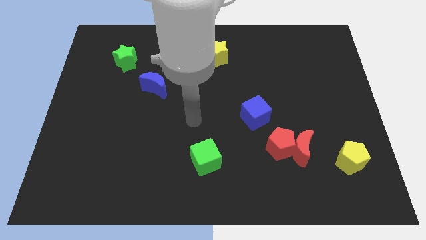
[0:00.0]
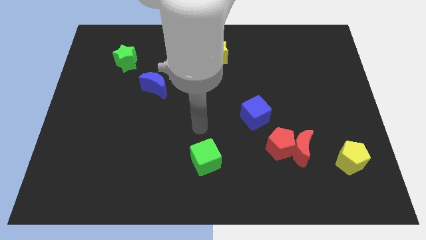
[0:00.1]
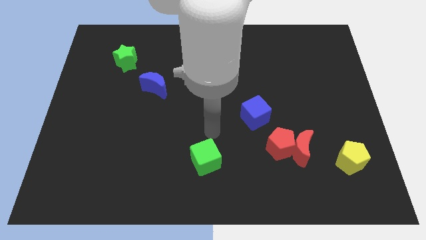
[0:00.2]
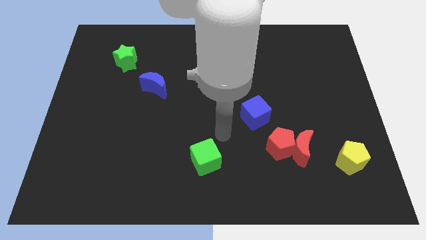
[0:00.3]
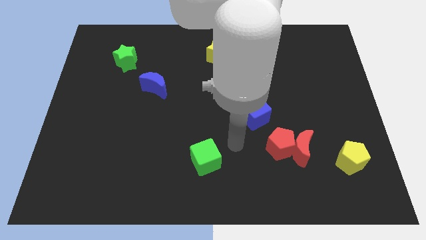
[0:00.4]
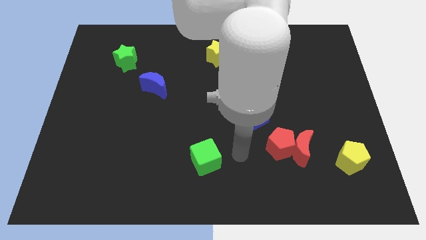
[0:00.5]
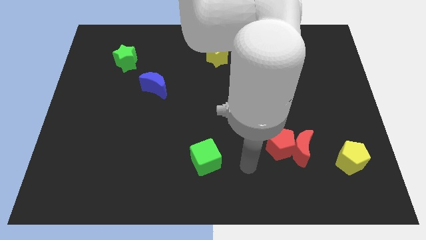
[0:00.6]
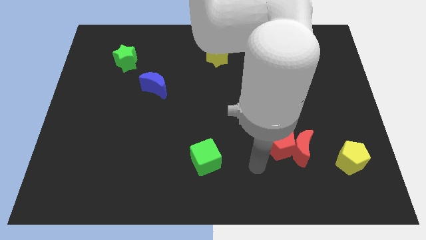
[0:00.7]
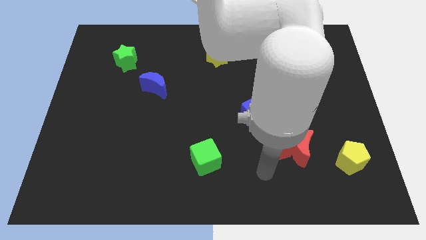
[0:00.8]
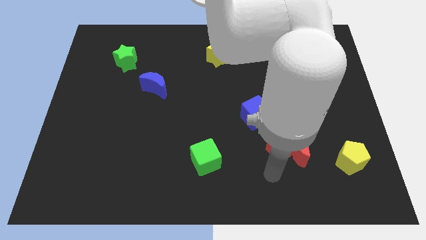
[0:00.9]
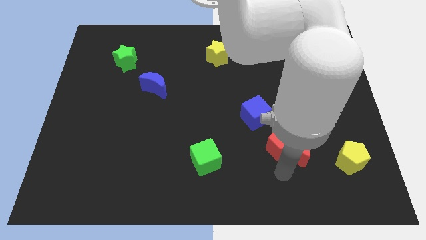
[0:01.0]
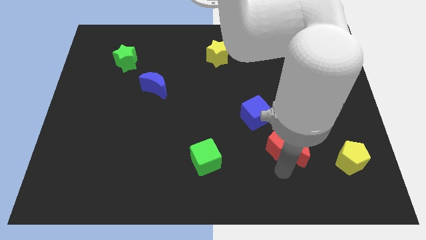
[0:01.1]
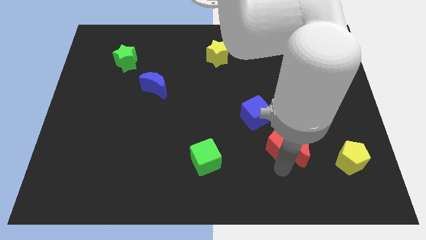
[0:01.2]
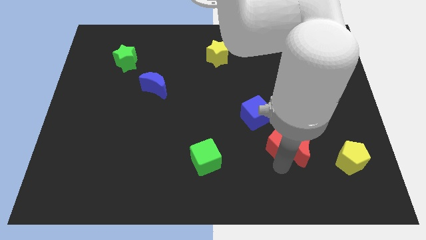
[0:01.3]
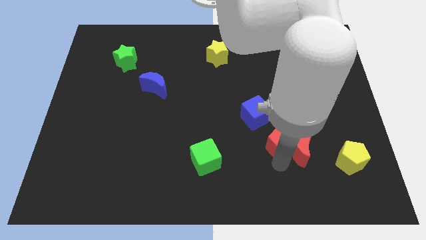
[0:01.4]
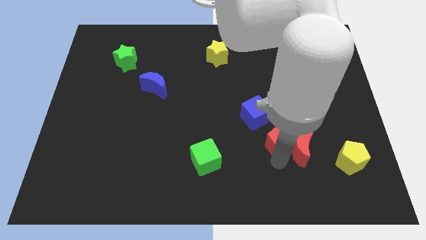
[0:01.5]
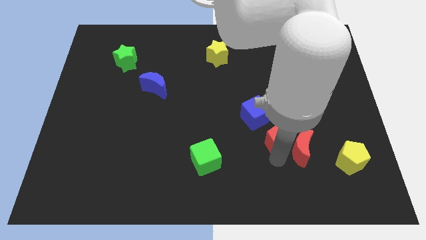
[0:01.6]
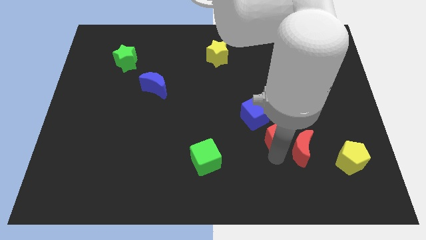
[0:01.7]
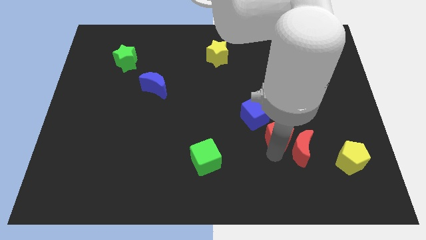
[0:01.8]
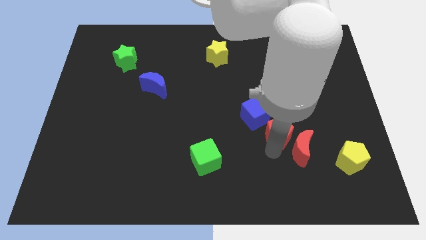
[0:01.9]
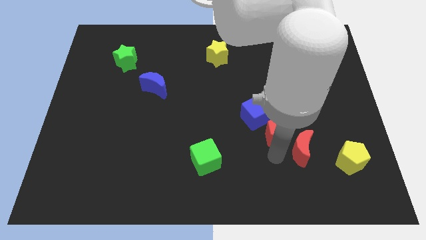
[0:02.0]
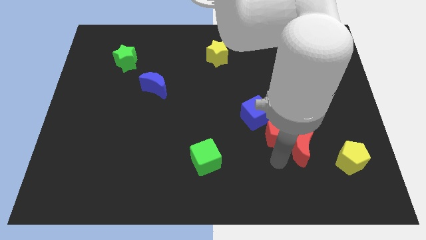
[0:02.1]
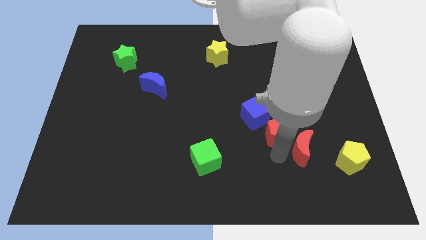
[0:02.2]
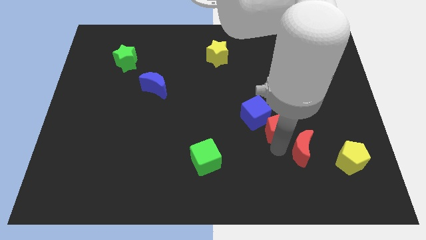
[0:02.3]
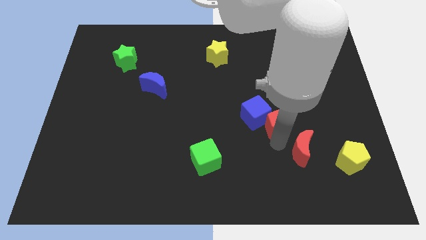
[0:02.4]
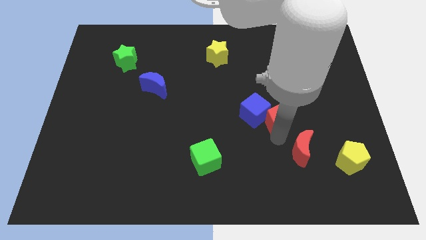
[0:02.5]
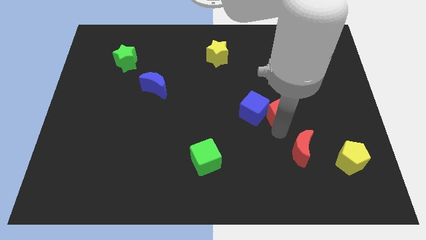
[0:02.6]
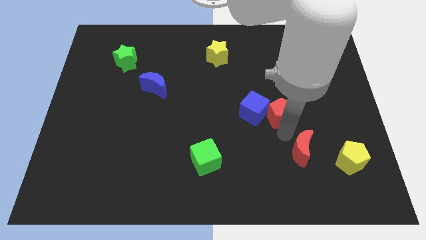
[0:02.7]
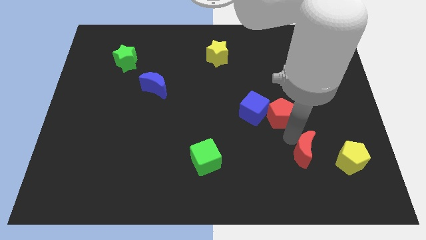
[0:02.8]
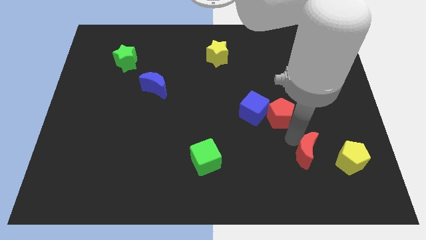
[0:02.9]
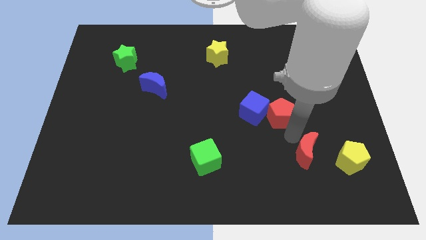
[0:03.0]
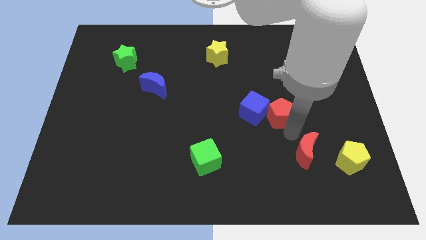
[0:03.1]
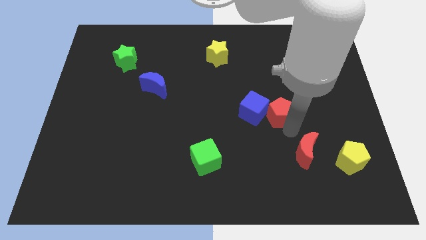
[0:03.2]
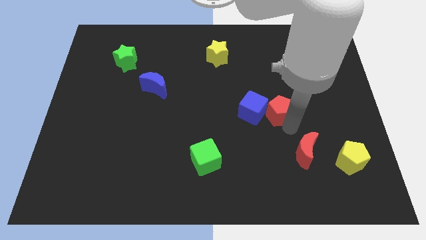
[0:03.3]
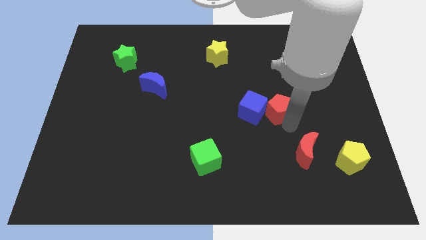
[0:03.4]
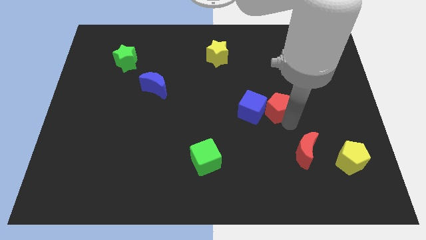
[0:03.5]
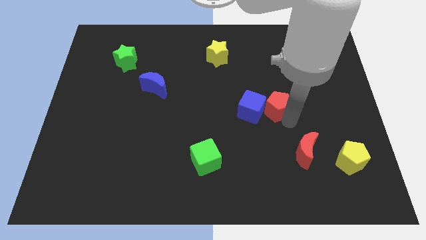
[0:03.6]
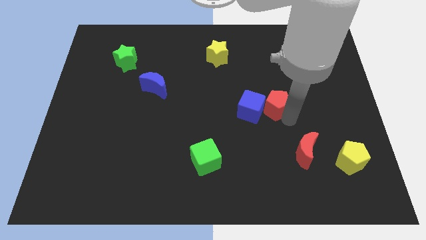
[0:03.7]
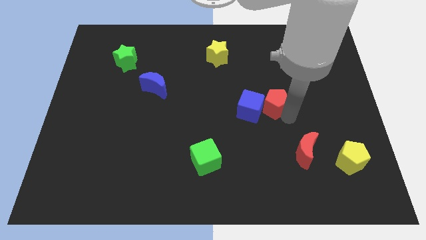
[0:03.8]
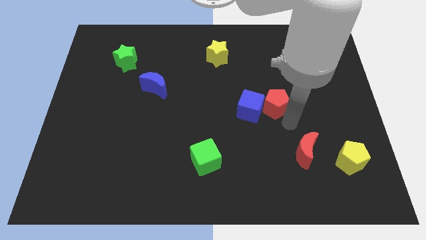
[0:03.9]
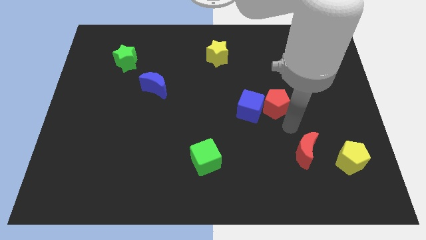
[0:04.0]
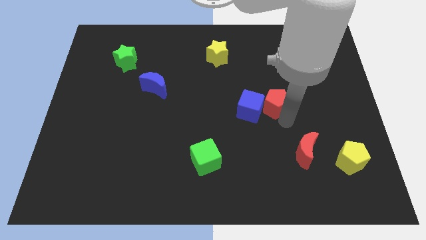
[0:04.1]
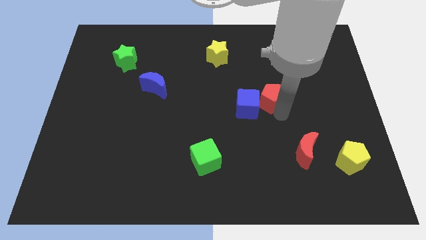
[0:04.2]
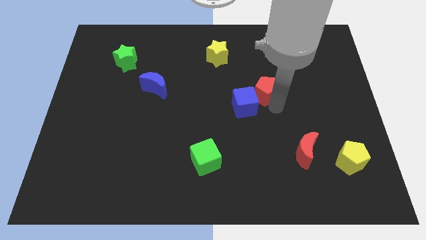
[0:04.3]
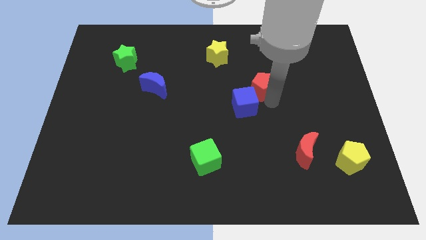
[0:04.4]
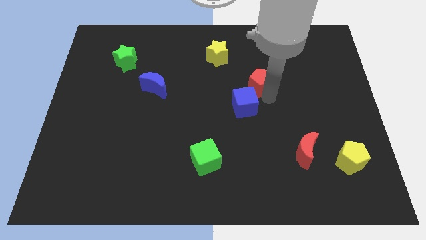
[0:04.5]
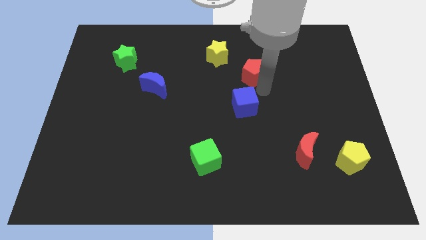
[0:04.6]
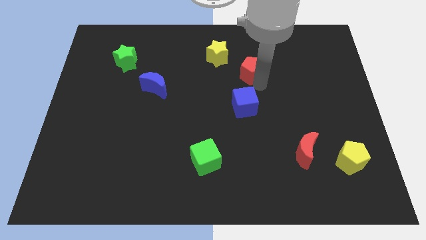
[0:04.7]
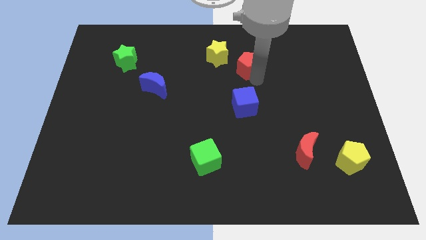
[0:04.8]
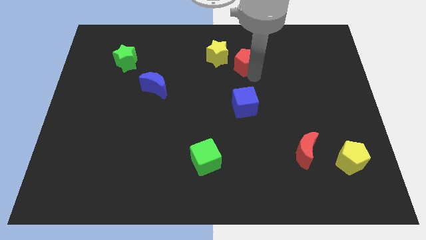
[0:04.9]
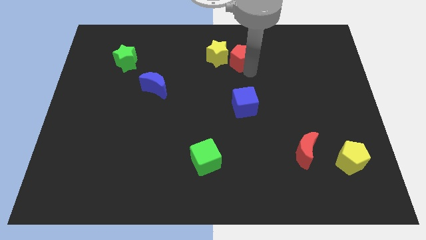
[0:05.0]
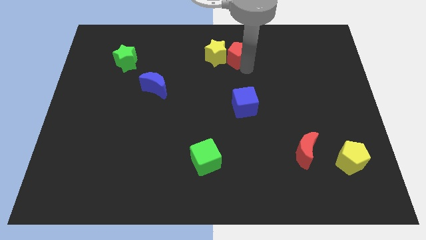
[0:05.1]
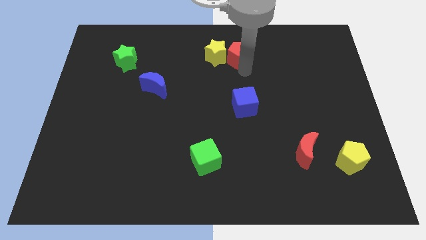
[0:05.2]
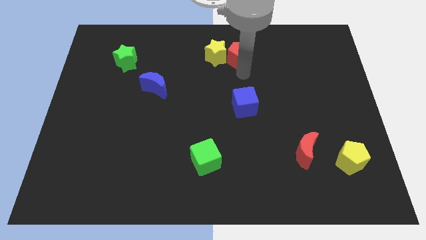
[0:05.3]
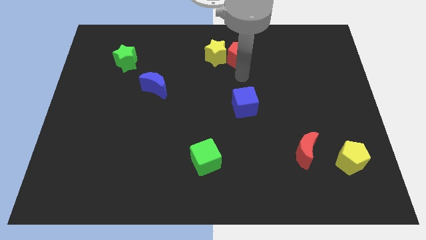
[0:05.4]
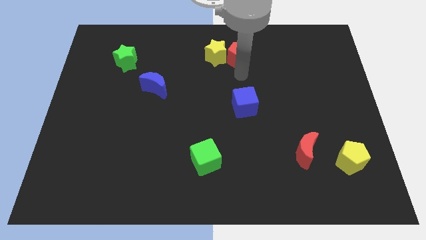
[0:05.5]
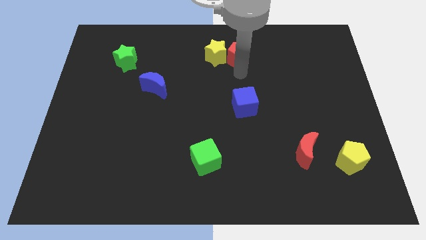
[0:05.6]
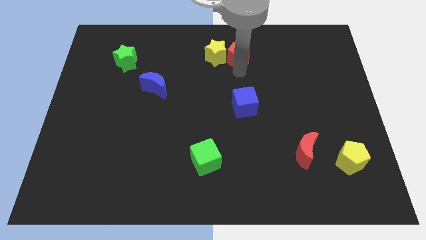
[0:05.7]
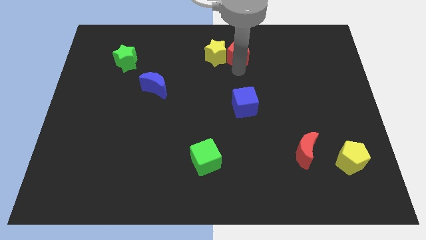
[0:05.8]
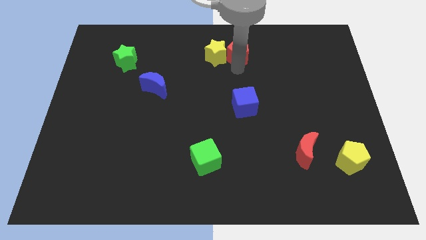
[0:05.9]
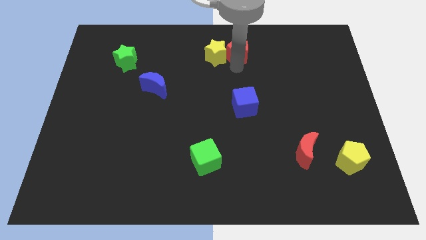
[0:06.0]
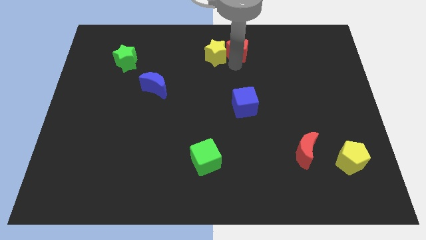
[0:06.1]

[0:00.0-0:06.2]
push the red pentagon to the top side
